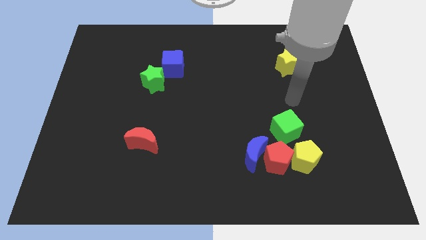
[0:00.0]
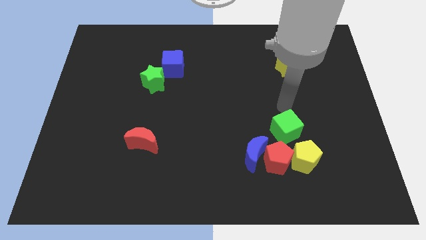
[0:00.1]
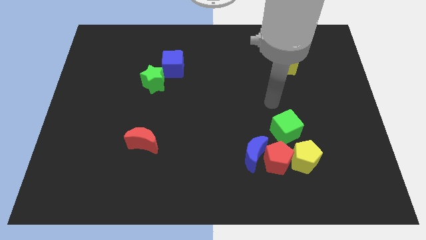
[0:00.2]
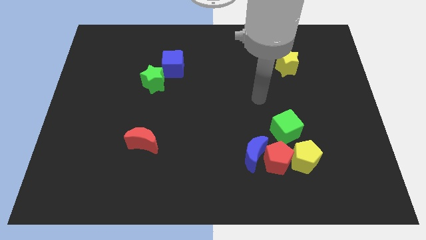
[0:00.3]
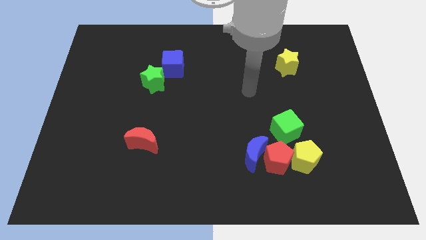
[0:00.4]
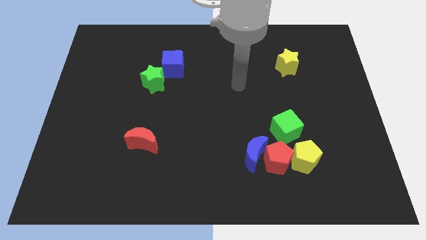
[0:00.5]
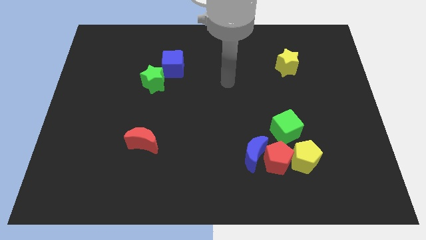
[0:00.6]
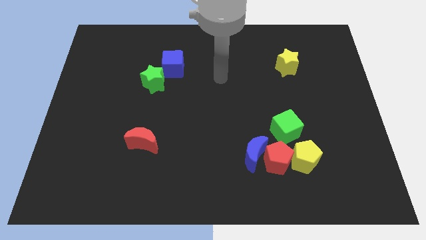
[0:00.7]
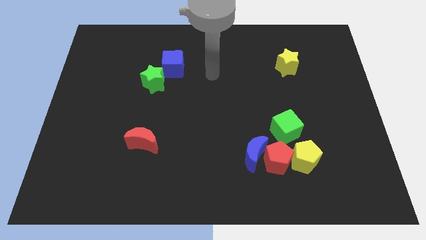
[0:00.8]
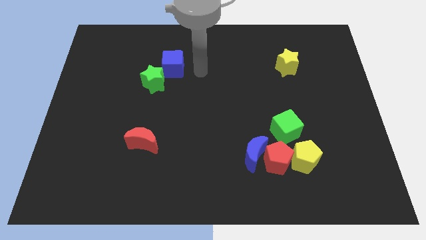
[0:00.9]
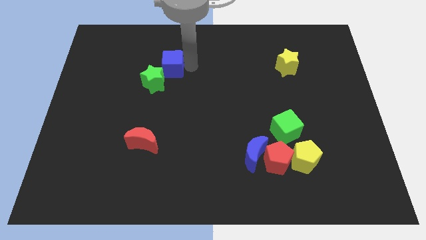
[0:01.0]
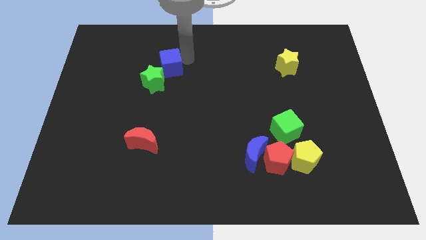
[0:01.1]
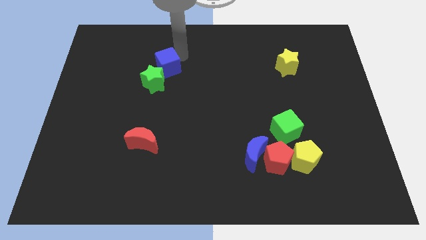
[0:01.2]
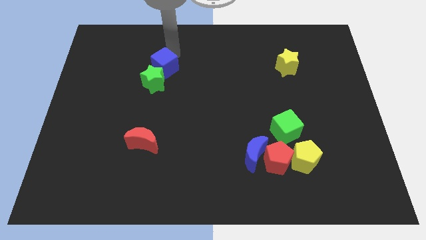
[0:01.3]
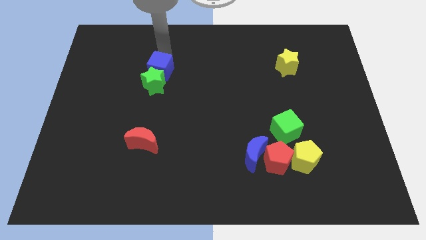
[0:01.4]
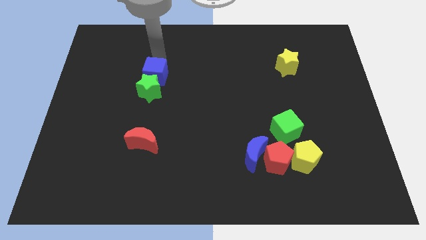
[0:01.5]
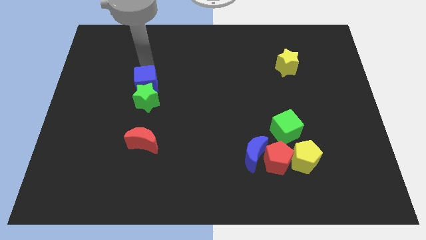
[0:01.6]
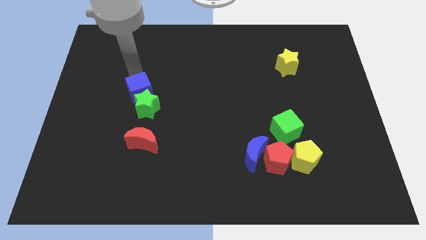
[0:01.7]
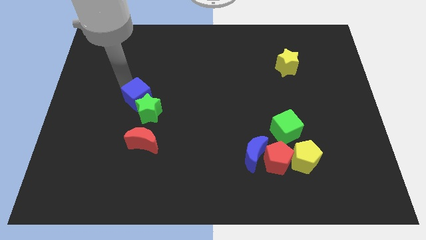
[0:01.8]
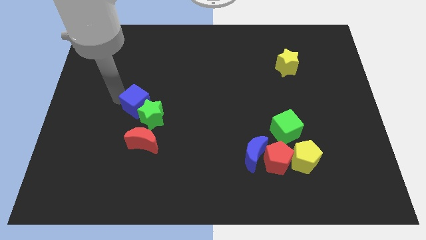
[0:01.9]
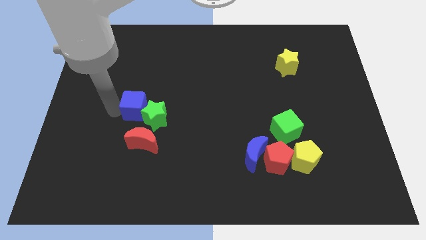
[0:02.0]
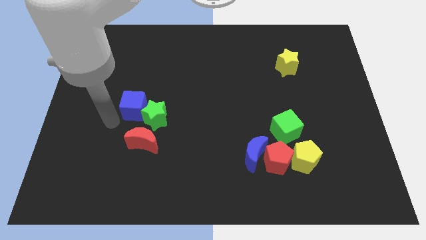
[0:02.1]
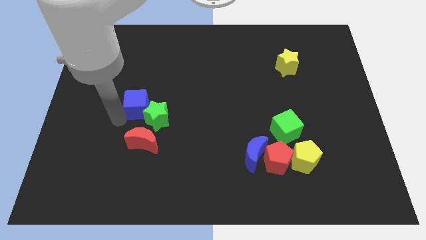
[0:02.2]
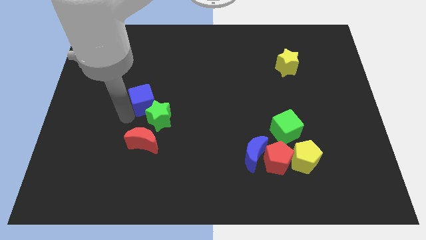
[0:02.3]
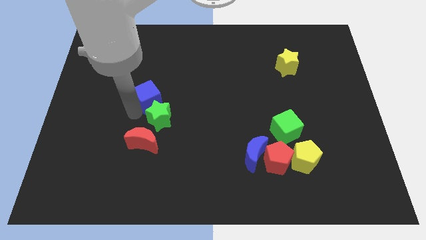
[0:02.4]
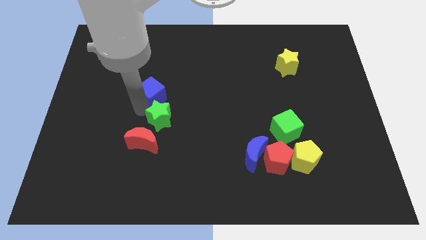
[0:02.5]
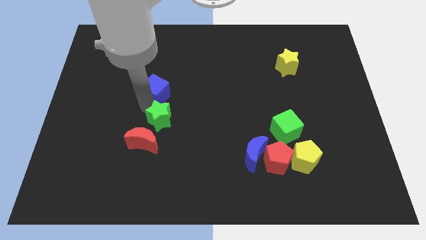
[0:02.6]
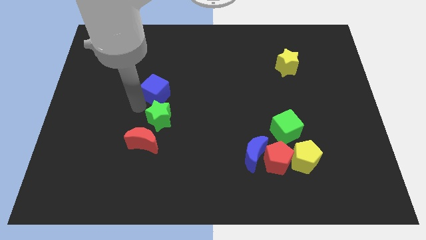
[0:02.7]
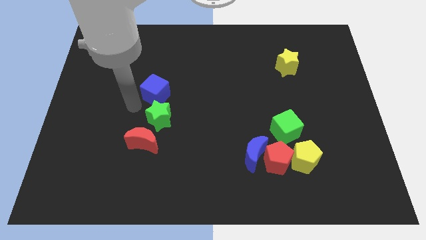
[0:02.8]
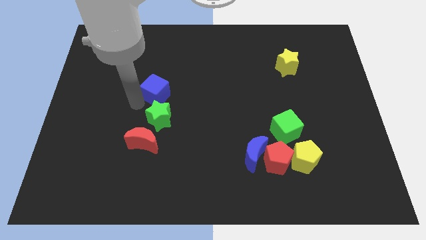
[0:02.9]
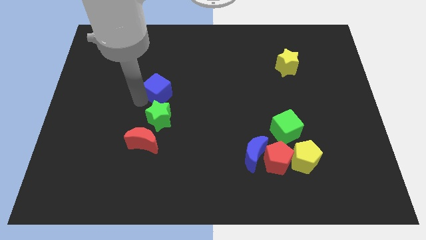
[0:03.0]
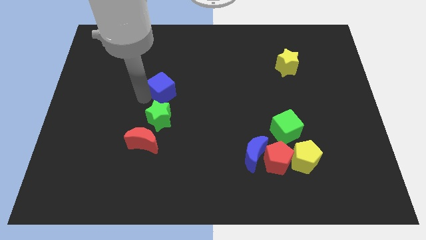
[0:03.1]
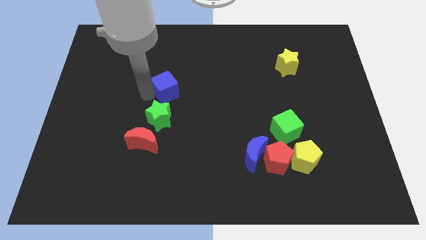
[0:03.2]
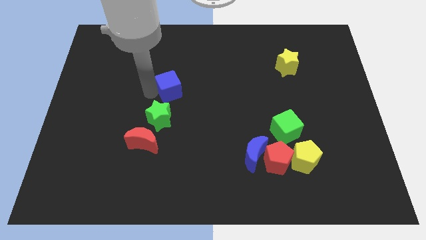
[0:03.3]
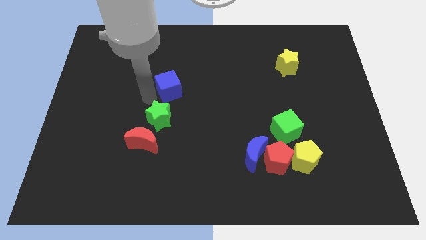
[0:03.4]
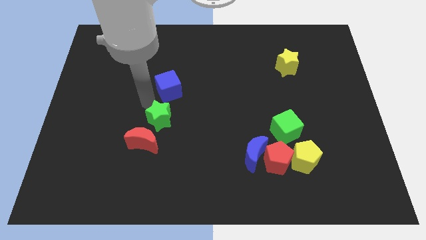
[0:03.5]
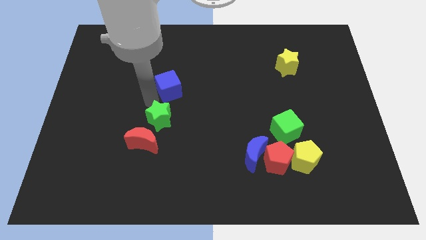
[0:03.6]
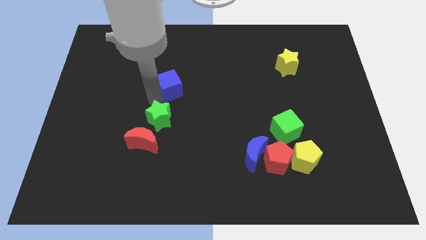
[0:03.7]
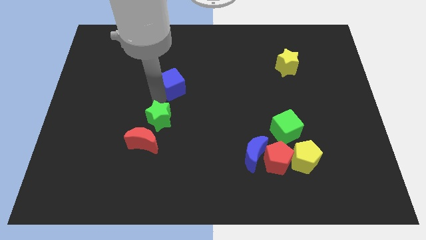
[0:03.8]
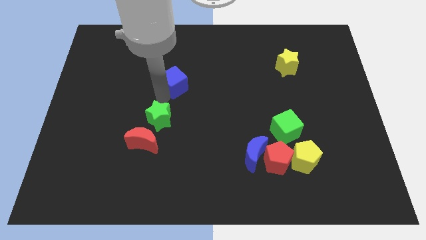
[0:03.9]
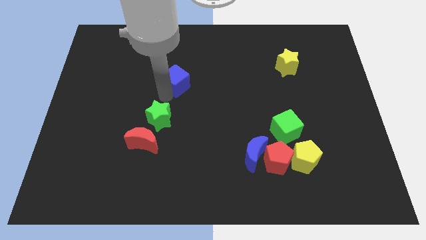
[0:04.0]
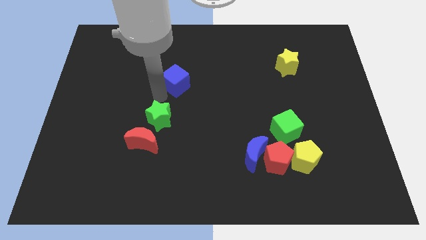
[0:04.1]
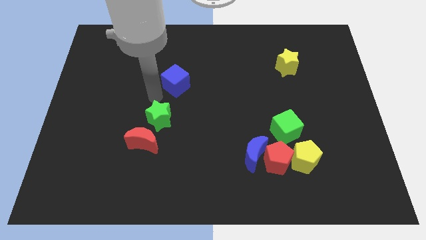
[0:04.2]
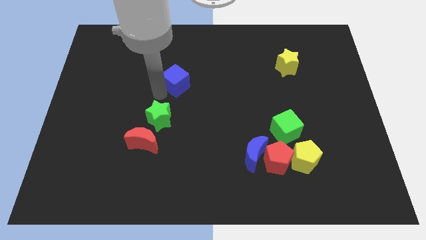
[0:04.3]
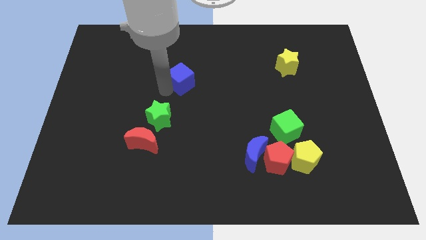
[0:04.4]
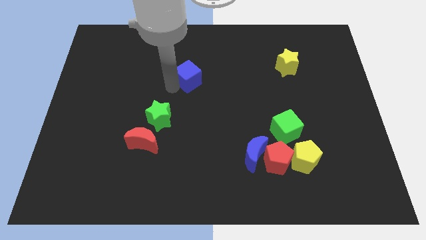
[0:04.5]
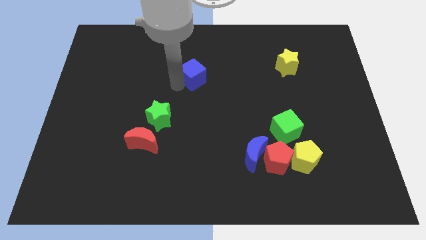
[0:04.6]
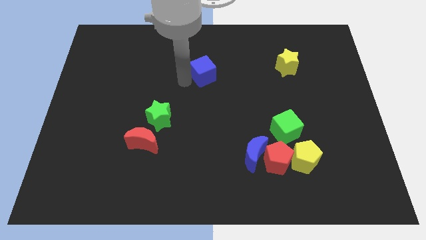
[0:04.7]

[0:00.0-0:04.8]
move the blue cube a little bit to the right

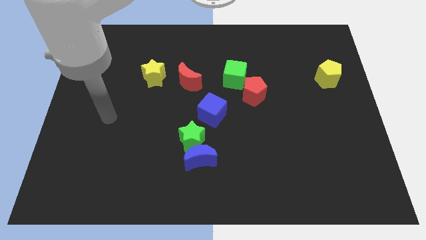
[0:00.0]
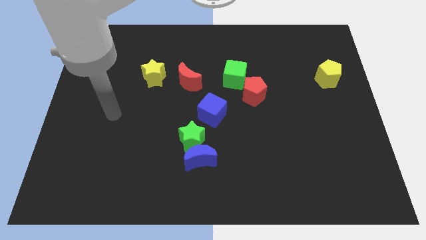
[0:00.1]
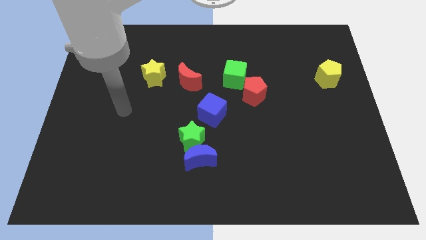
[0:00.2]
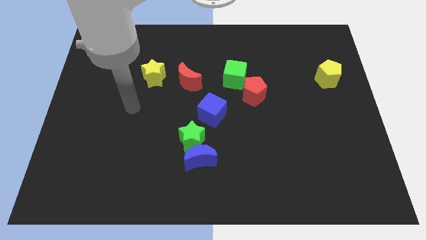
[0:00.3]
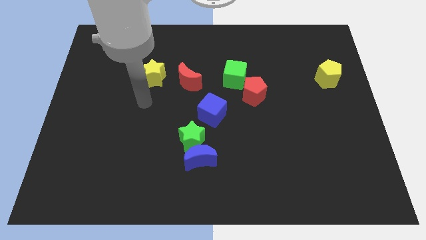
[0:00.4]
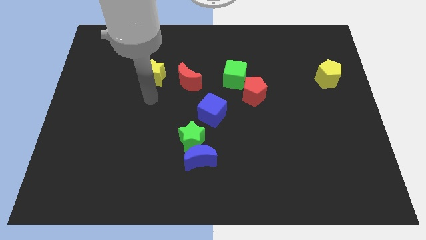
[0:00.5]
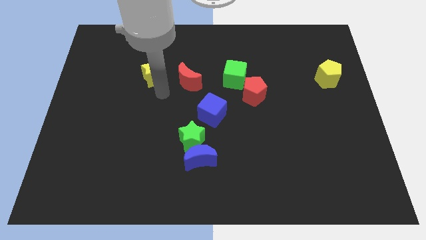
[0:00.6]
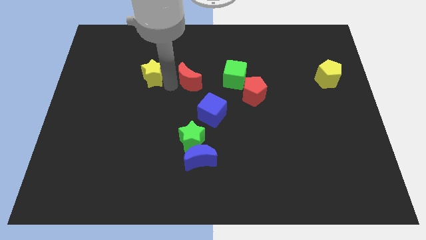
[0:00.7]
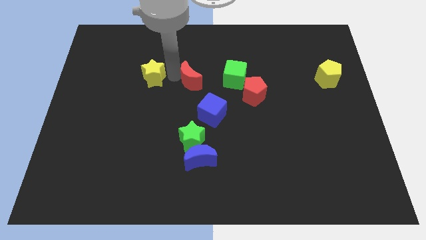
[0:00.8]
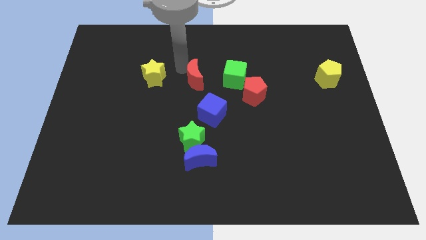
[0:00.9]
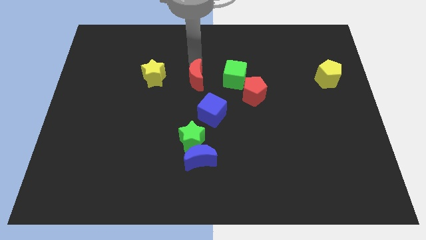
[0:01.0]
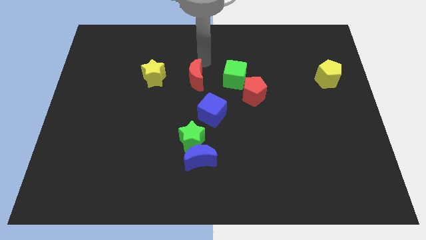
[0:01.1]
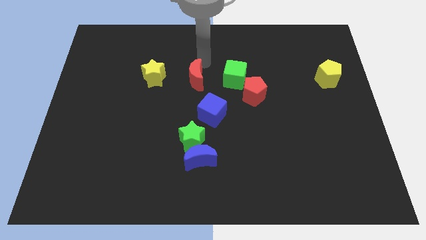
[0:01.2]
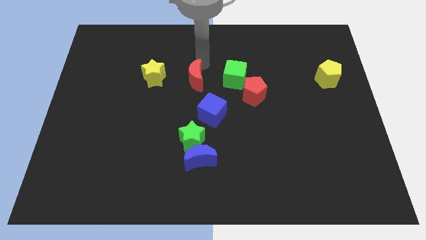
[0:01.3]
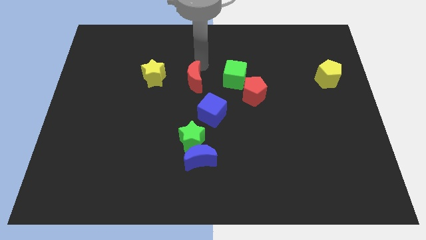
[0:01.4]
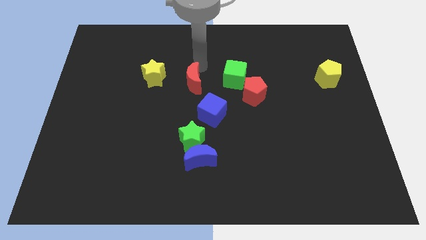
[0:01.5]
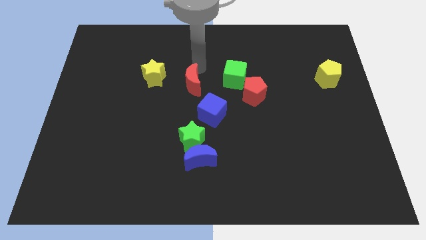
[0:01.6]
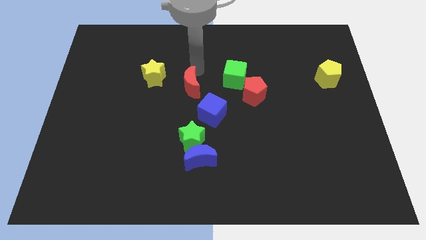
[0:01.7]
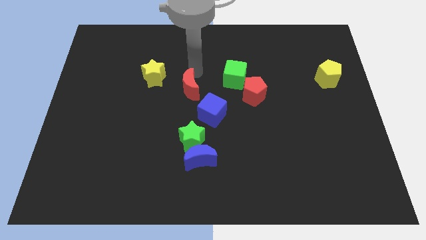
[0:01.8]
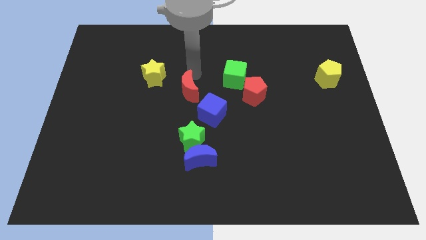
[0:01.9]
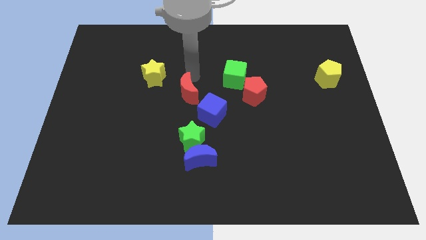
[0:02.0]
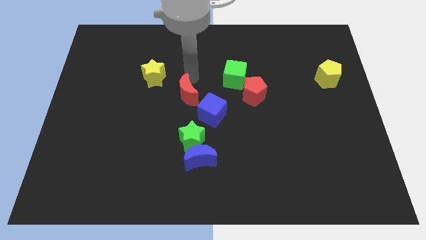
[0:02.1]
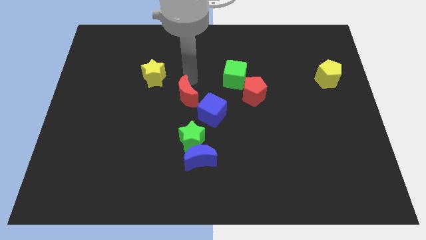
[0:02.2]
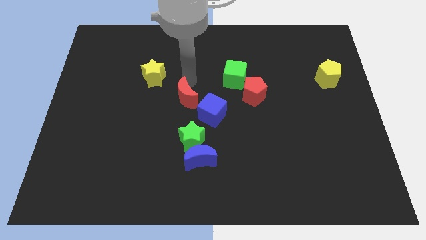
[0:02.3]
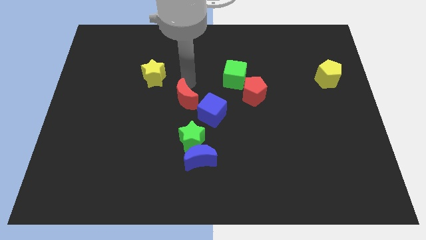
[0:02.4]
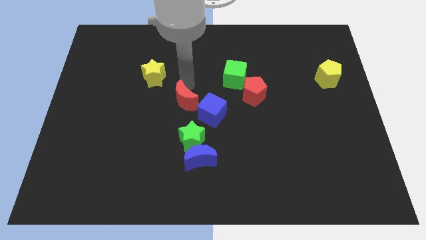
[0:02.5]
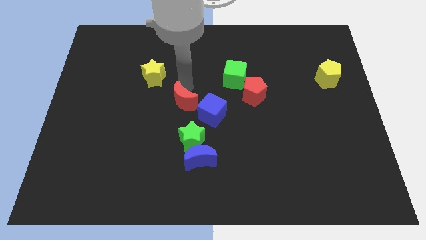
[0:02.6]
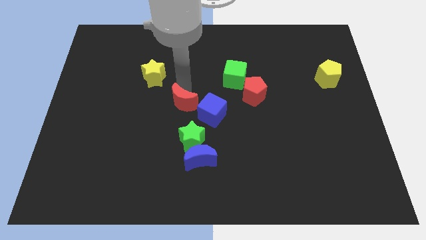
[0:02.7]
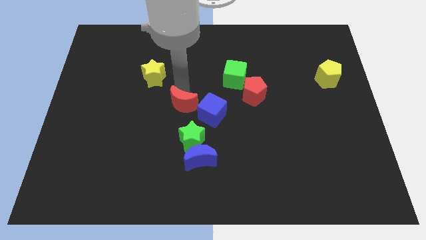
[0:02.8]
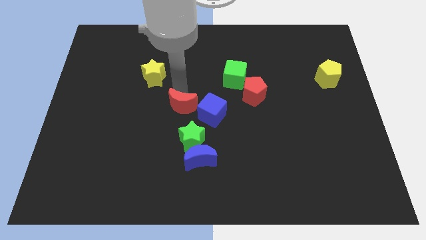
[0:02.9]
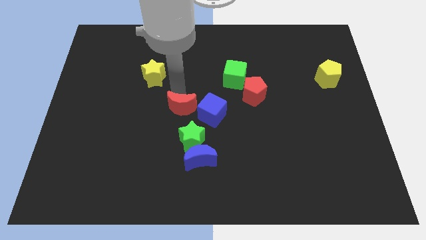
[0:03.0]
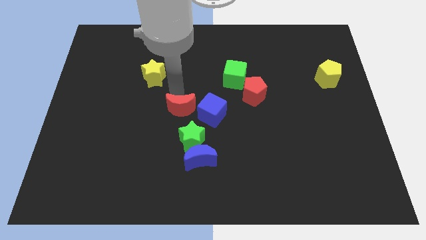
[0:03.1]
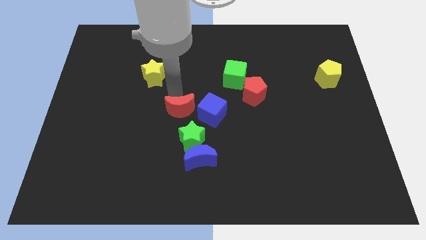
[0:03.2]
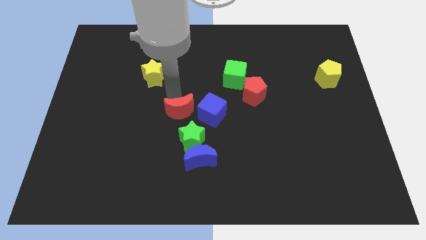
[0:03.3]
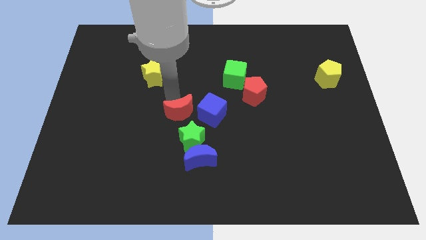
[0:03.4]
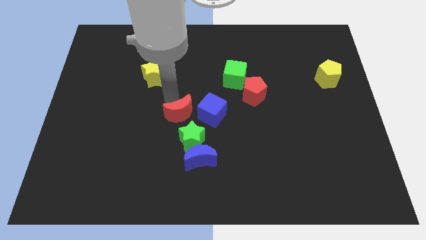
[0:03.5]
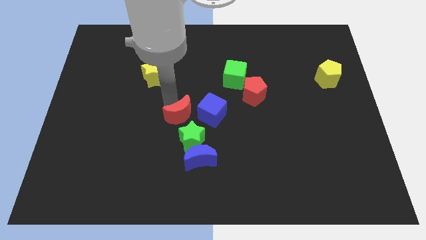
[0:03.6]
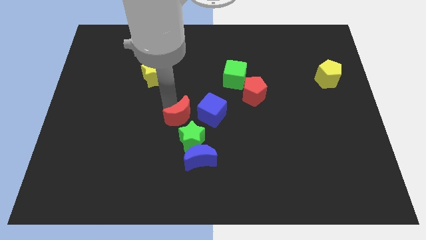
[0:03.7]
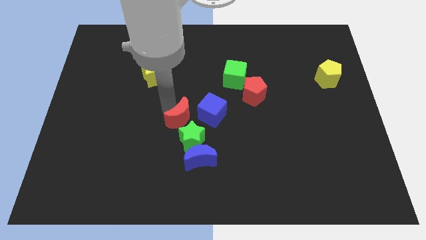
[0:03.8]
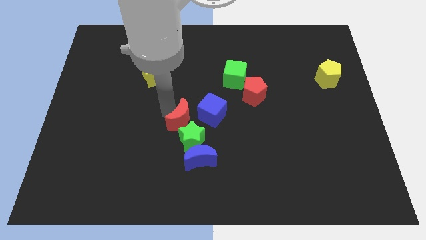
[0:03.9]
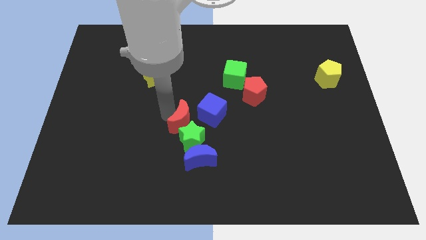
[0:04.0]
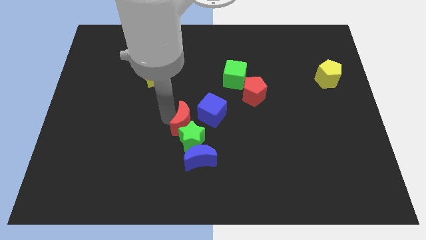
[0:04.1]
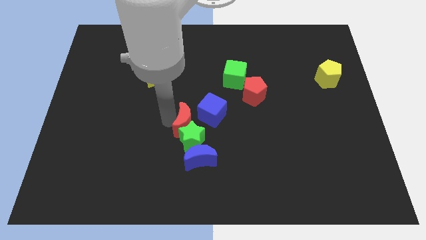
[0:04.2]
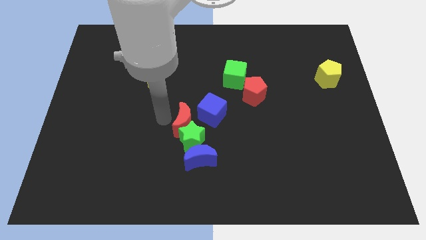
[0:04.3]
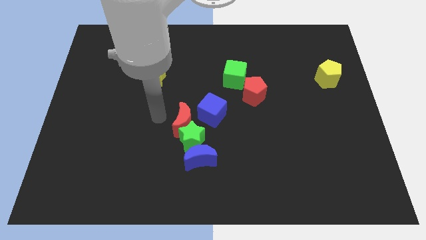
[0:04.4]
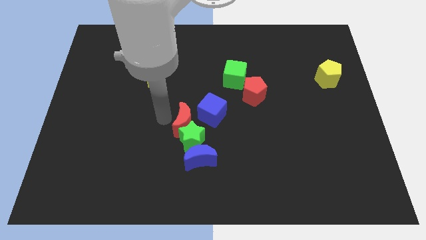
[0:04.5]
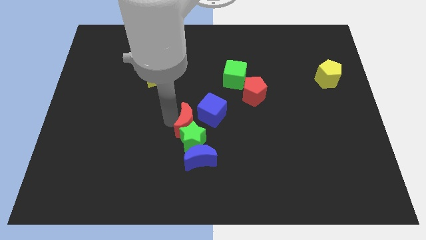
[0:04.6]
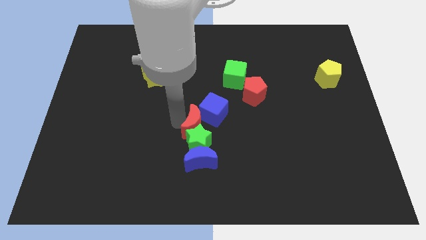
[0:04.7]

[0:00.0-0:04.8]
push the red moon a little bit down and then right
